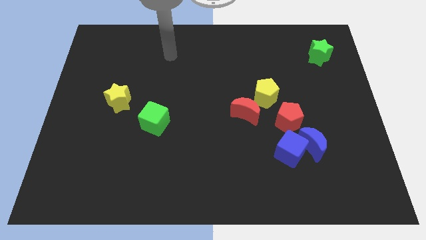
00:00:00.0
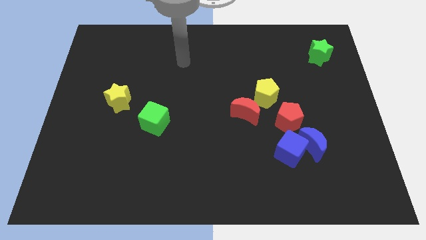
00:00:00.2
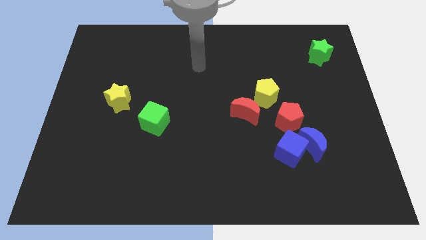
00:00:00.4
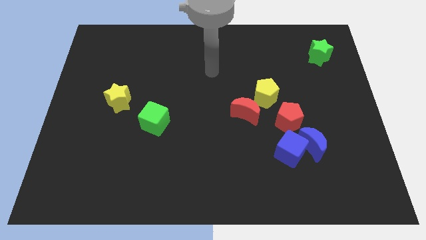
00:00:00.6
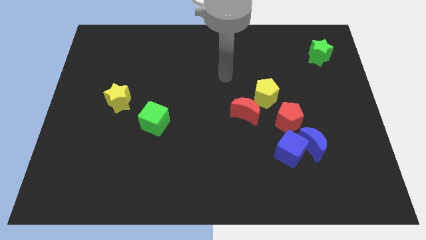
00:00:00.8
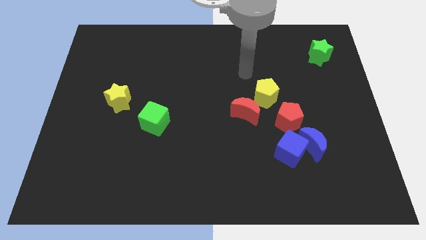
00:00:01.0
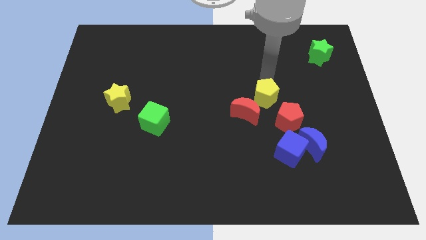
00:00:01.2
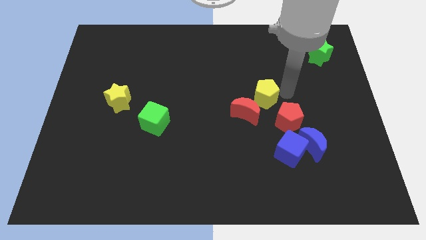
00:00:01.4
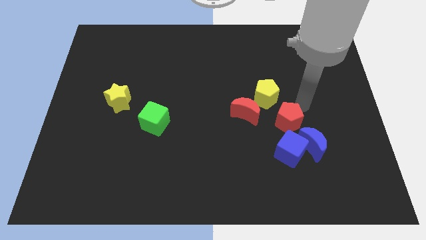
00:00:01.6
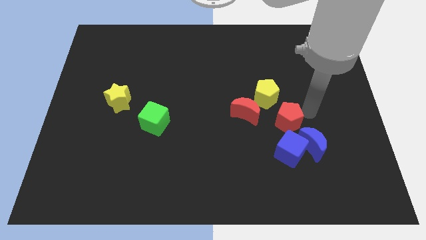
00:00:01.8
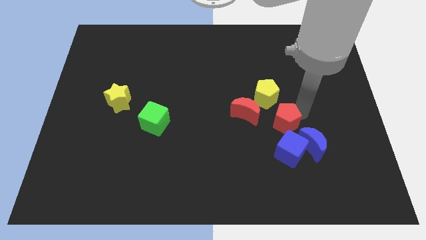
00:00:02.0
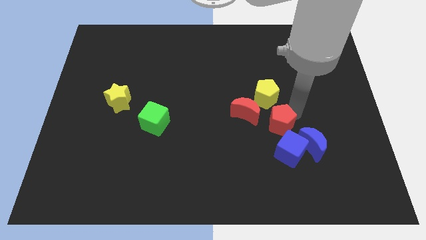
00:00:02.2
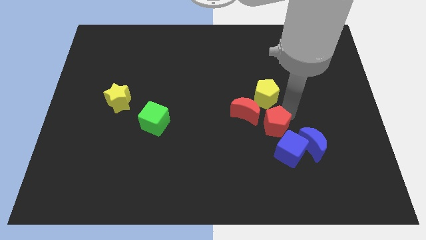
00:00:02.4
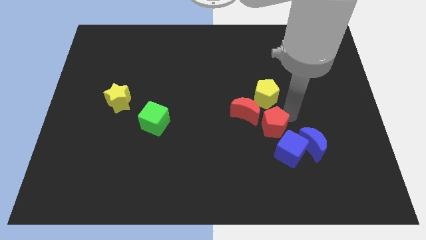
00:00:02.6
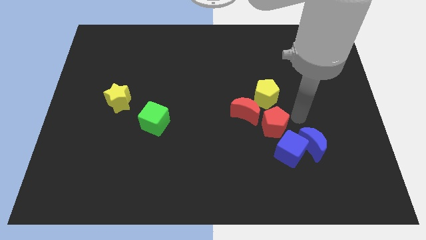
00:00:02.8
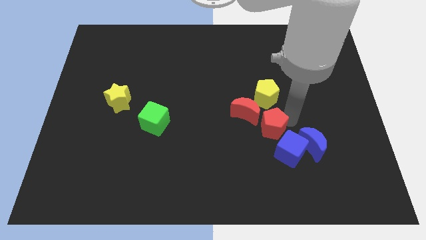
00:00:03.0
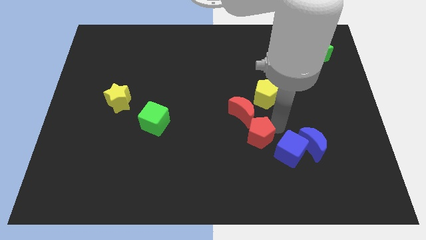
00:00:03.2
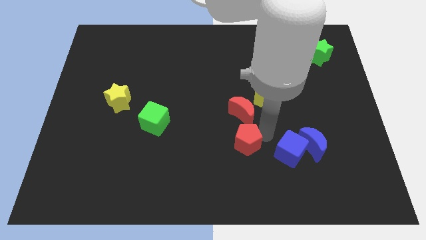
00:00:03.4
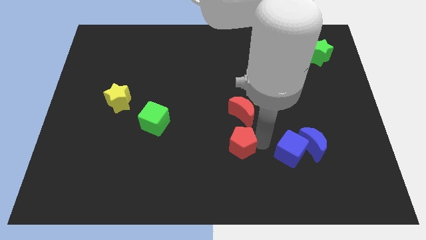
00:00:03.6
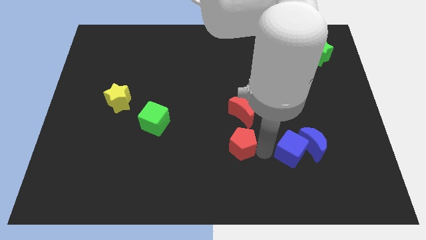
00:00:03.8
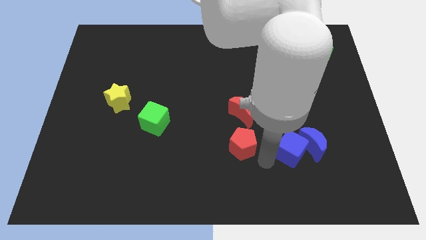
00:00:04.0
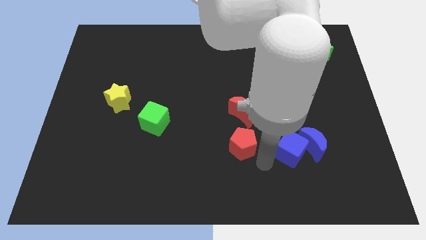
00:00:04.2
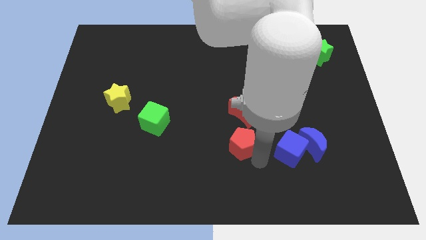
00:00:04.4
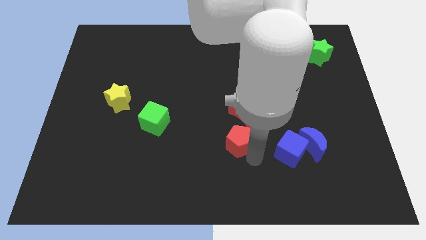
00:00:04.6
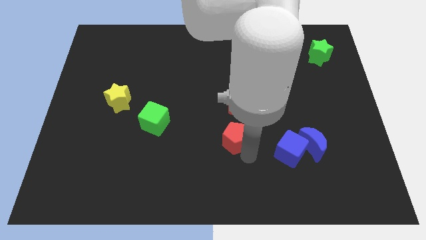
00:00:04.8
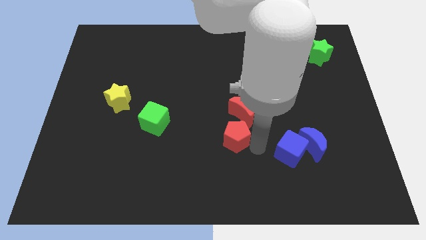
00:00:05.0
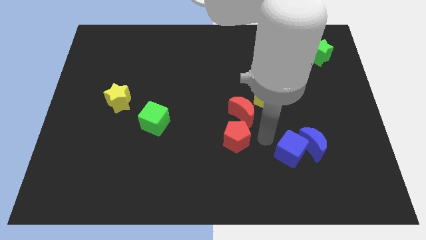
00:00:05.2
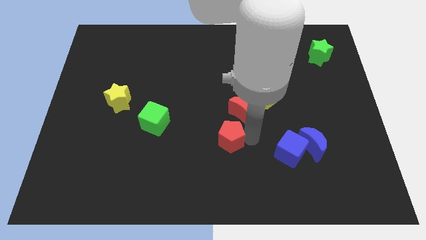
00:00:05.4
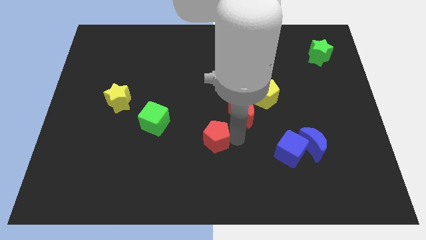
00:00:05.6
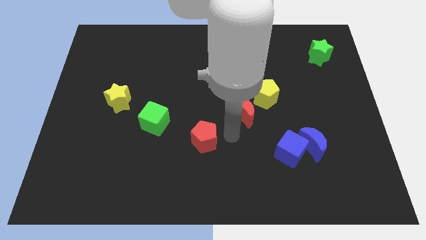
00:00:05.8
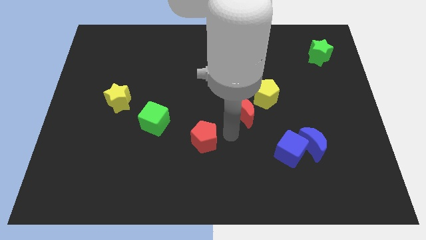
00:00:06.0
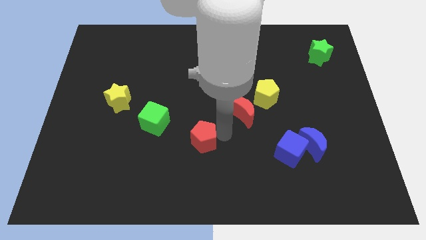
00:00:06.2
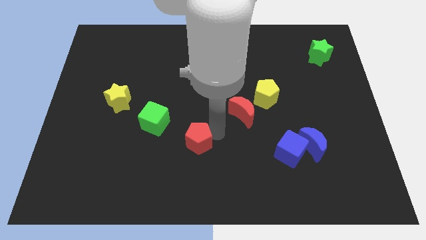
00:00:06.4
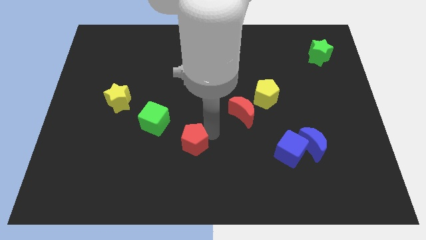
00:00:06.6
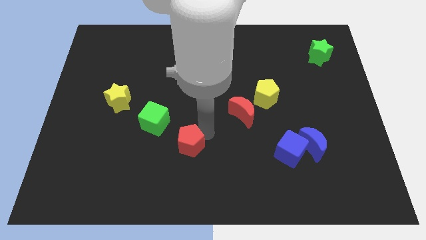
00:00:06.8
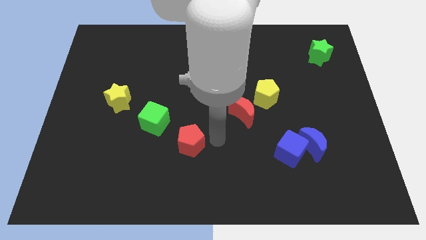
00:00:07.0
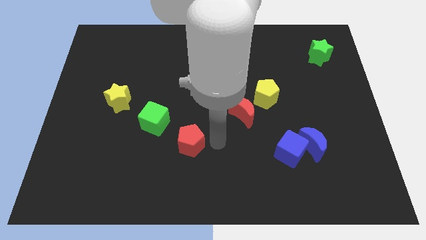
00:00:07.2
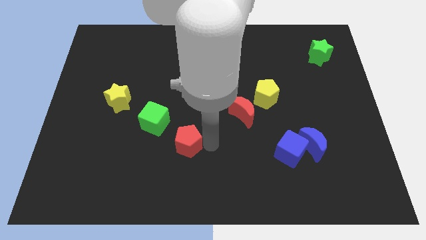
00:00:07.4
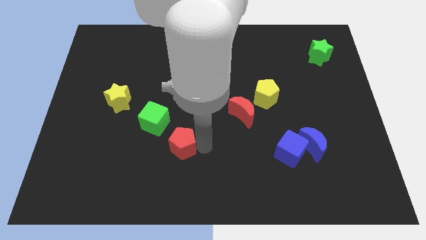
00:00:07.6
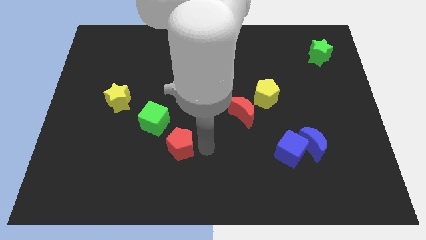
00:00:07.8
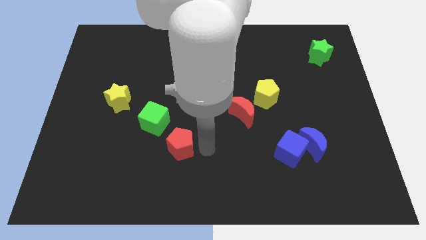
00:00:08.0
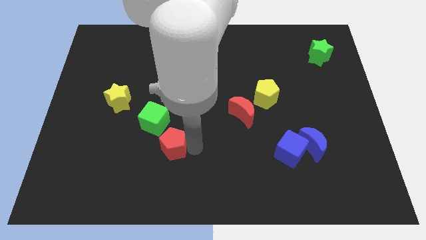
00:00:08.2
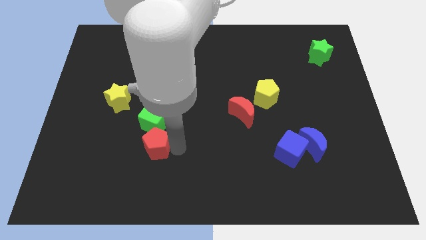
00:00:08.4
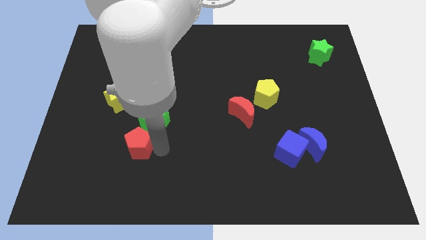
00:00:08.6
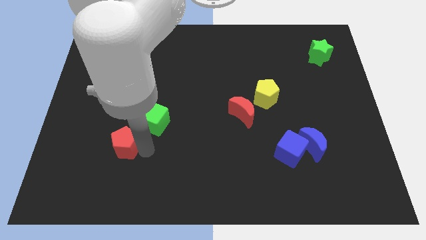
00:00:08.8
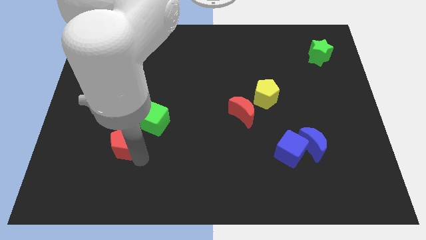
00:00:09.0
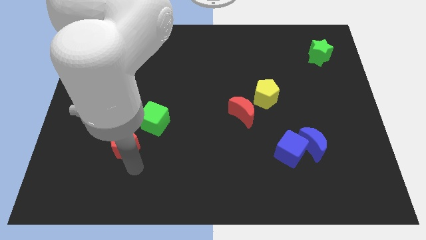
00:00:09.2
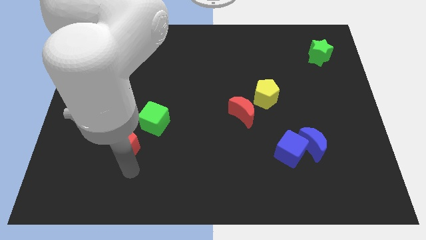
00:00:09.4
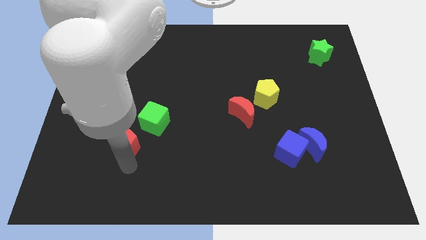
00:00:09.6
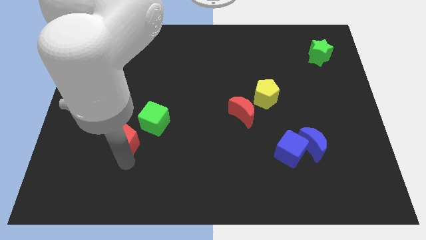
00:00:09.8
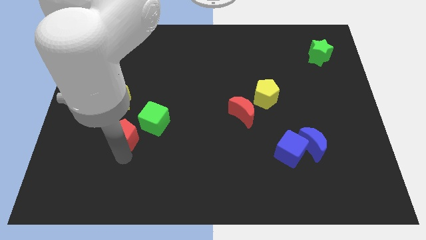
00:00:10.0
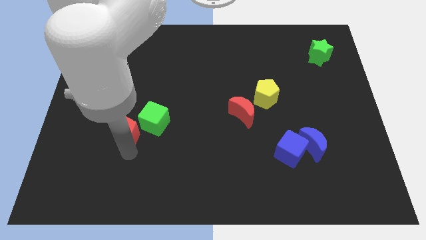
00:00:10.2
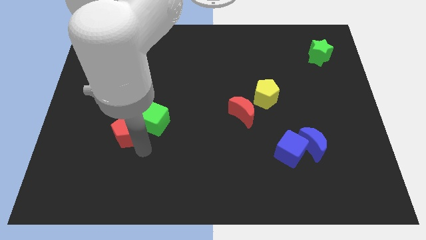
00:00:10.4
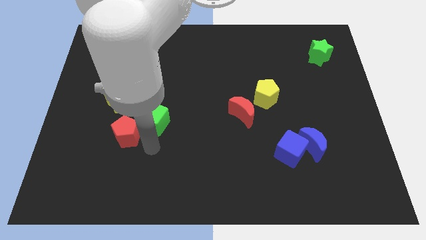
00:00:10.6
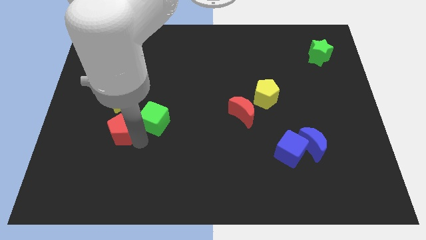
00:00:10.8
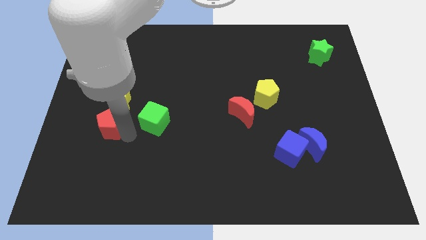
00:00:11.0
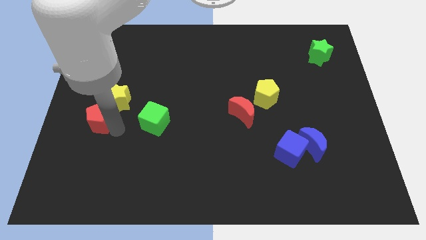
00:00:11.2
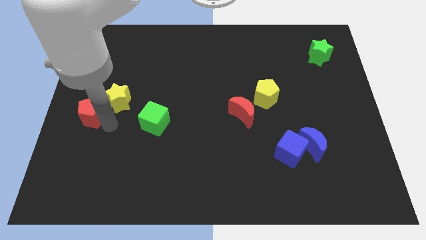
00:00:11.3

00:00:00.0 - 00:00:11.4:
move the red pentagon to the center left

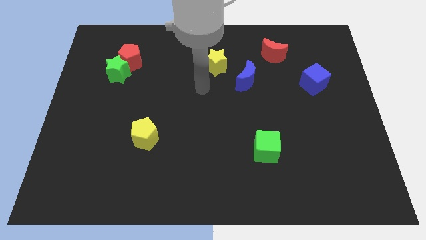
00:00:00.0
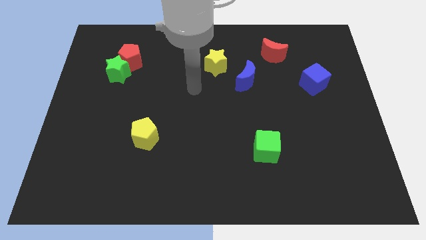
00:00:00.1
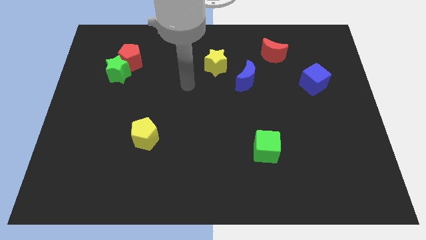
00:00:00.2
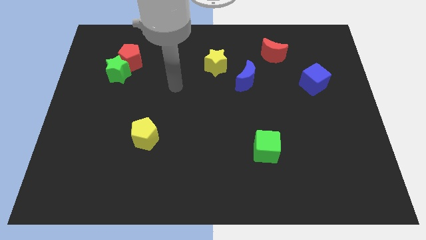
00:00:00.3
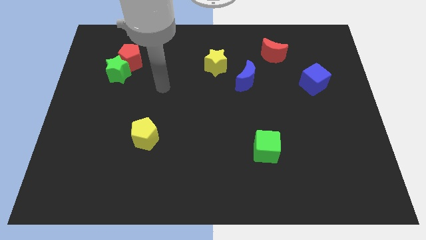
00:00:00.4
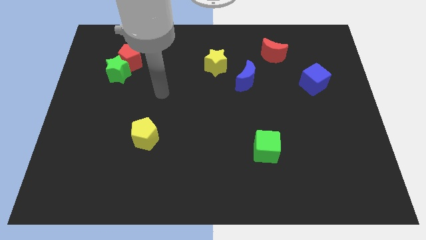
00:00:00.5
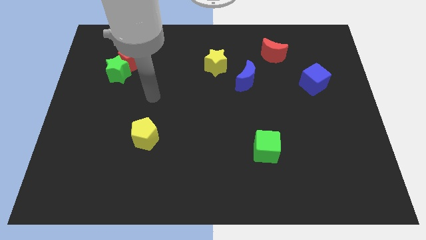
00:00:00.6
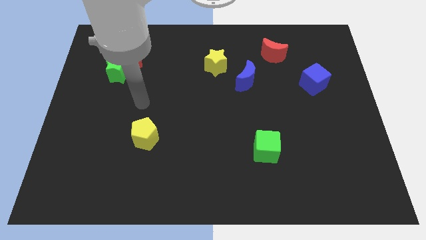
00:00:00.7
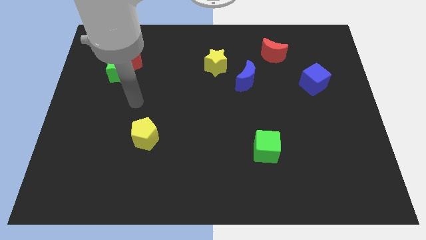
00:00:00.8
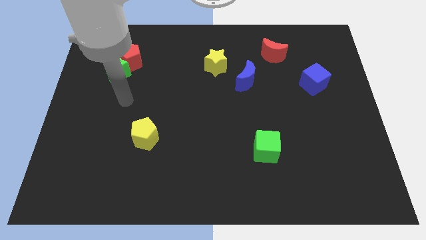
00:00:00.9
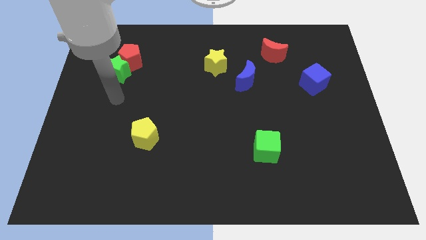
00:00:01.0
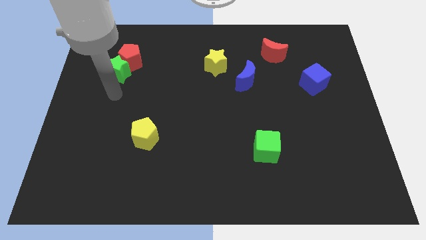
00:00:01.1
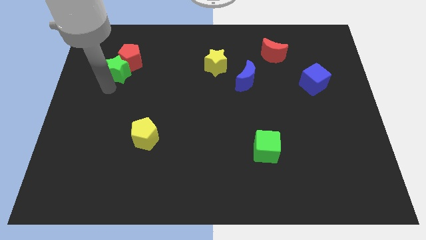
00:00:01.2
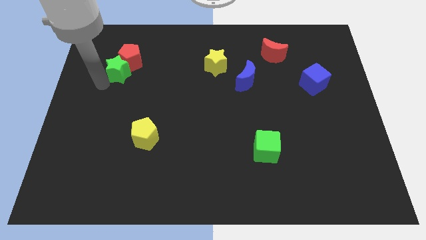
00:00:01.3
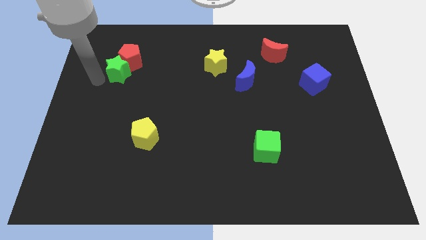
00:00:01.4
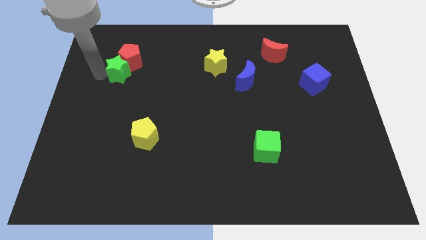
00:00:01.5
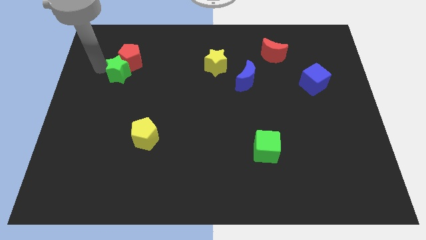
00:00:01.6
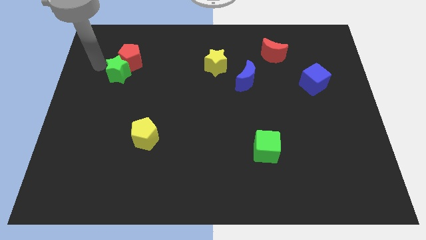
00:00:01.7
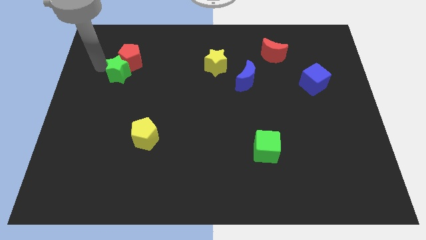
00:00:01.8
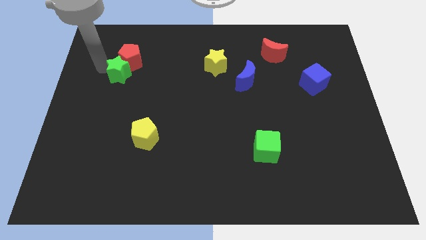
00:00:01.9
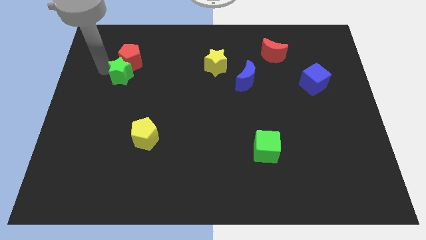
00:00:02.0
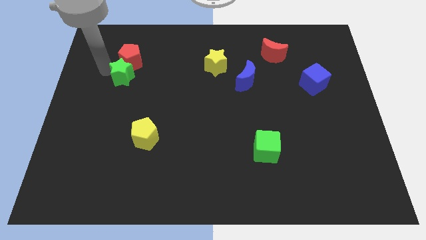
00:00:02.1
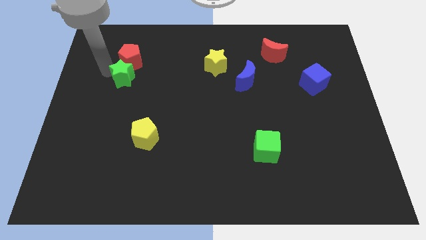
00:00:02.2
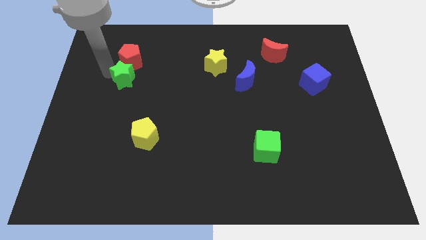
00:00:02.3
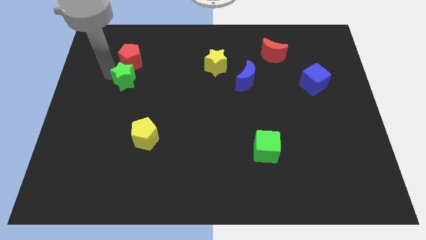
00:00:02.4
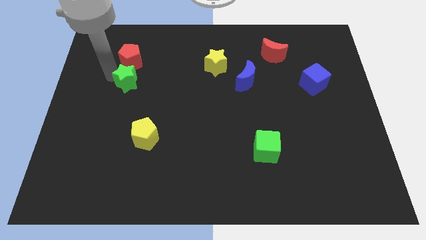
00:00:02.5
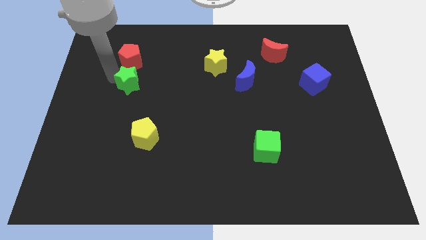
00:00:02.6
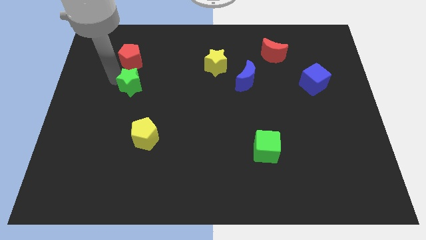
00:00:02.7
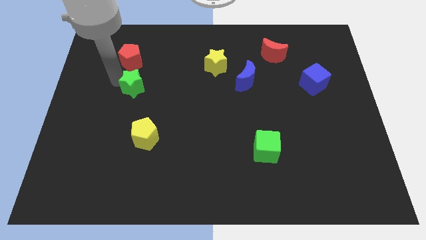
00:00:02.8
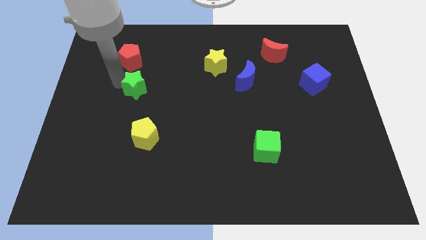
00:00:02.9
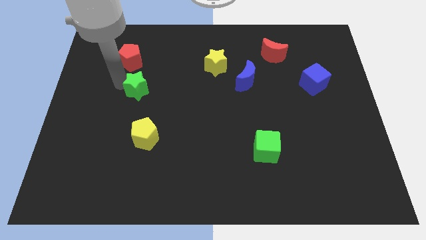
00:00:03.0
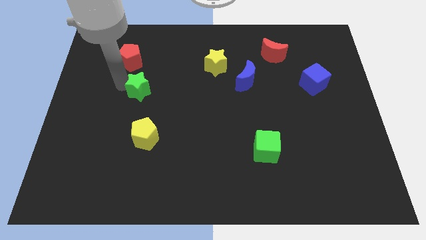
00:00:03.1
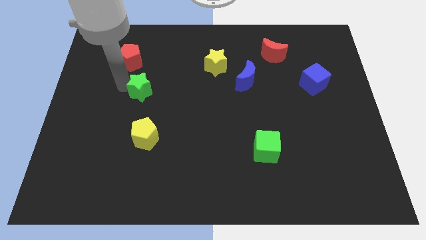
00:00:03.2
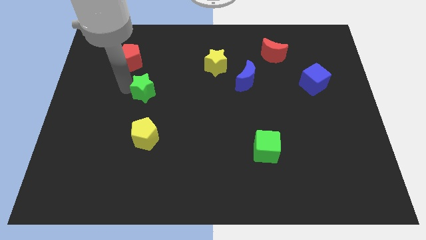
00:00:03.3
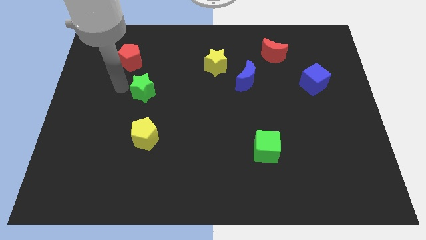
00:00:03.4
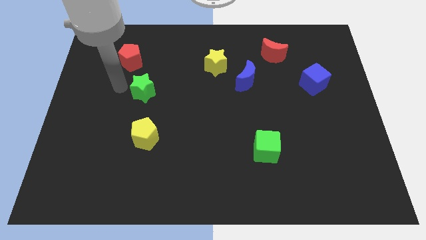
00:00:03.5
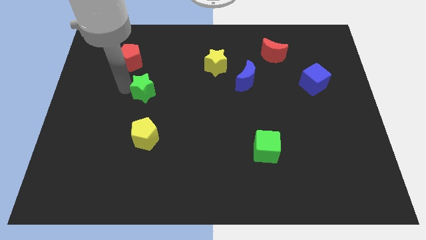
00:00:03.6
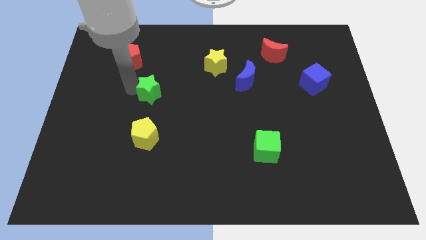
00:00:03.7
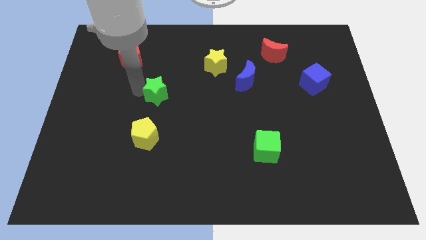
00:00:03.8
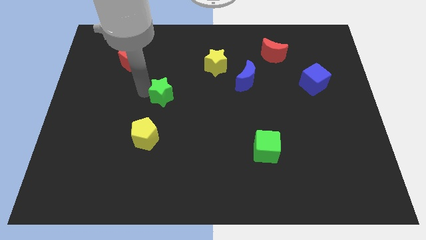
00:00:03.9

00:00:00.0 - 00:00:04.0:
move the green star to the center of the board
